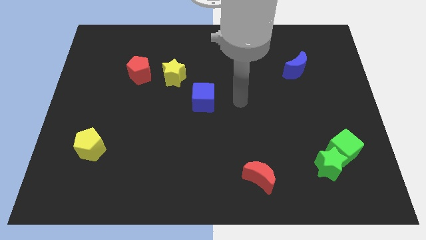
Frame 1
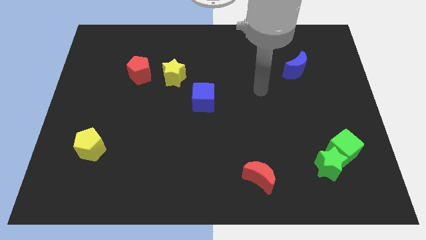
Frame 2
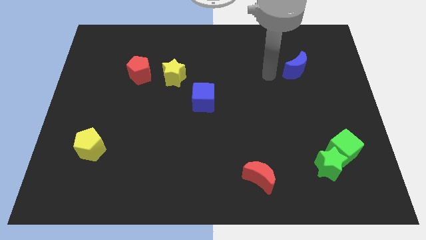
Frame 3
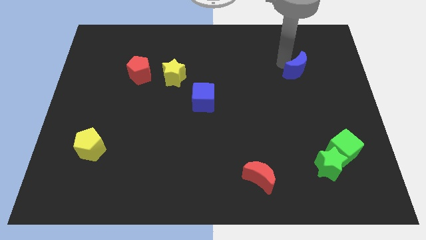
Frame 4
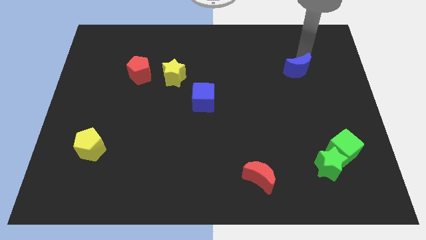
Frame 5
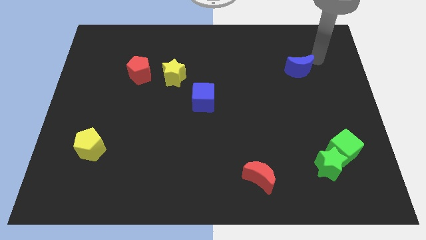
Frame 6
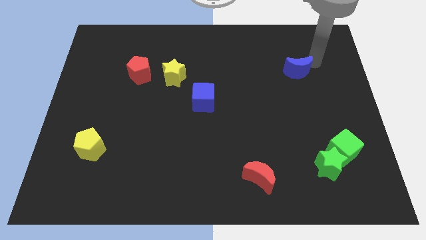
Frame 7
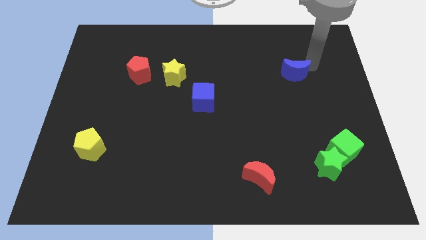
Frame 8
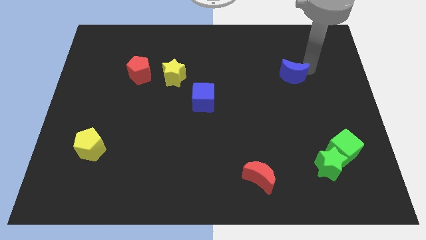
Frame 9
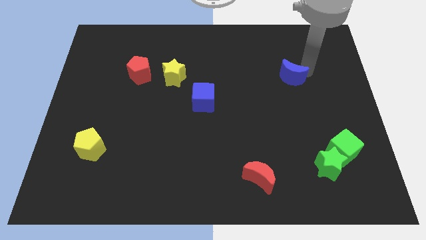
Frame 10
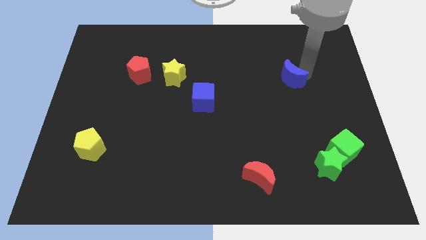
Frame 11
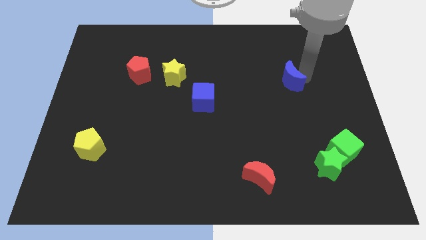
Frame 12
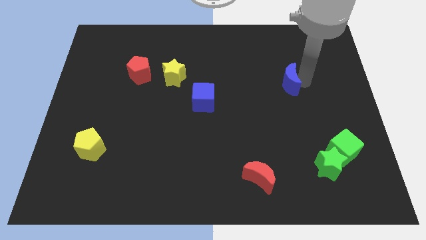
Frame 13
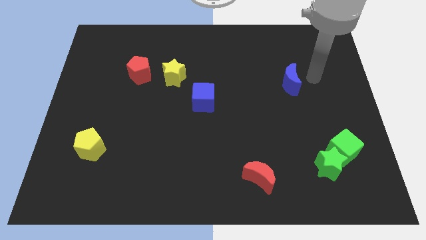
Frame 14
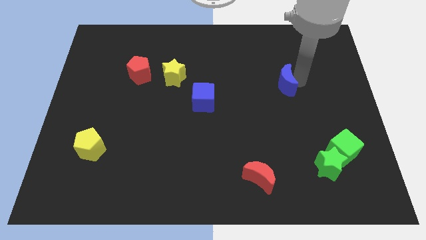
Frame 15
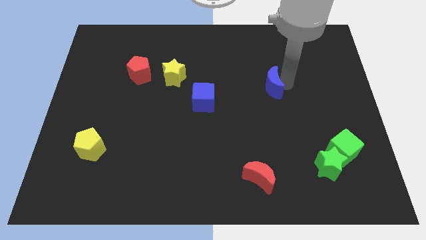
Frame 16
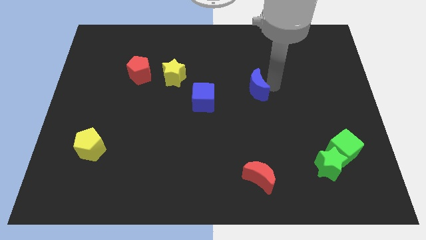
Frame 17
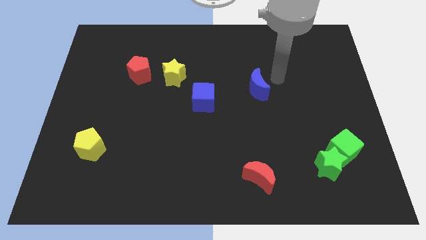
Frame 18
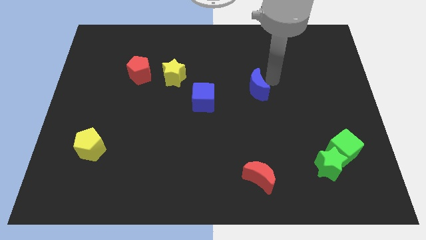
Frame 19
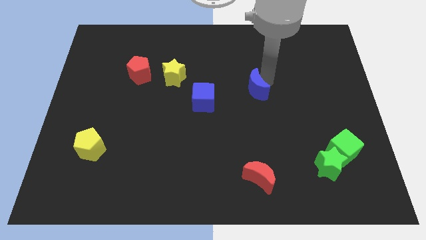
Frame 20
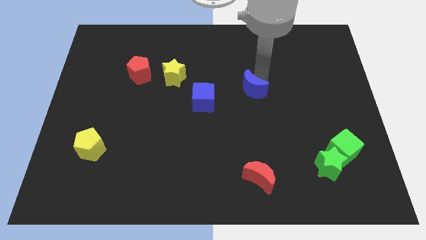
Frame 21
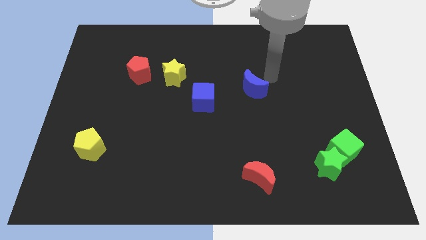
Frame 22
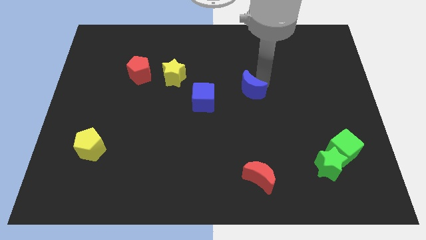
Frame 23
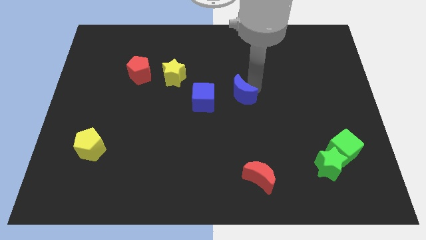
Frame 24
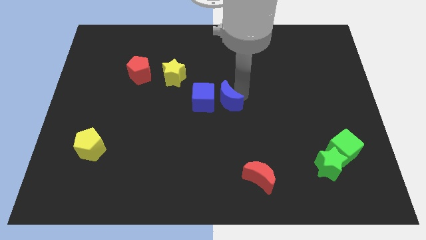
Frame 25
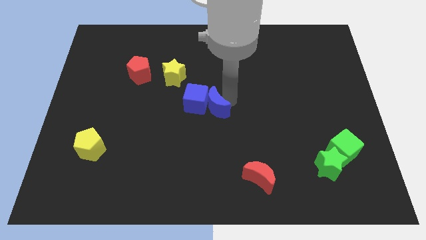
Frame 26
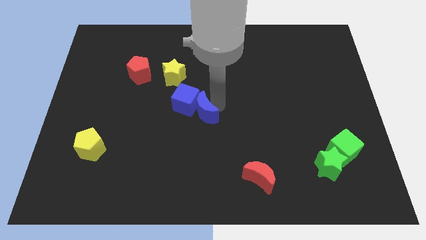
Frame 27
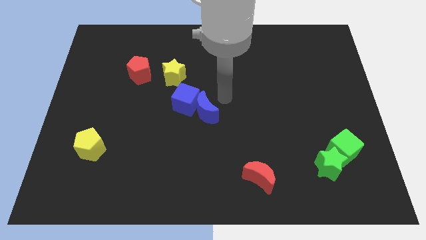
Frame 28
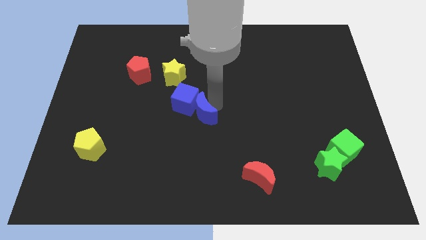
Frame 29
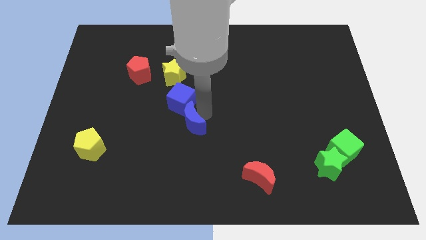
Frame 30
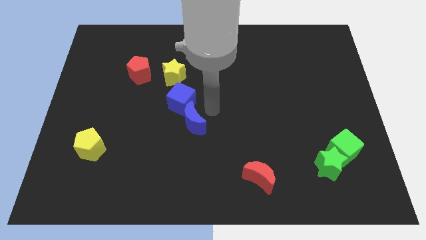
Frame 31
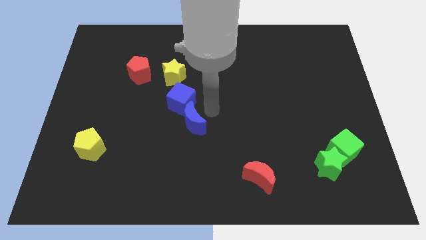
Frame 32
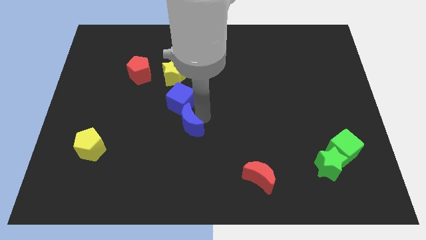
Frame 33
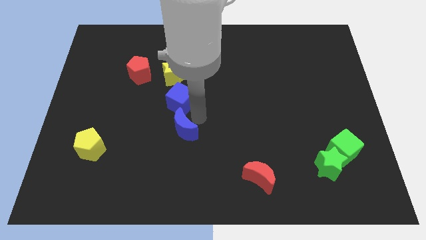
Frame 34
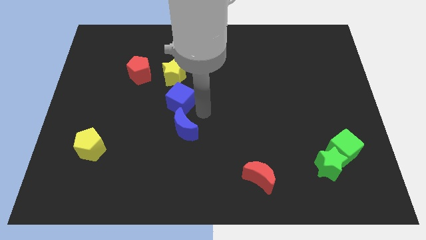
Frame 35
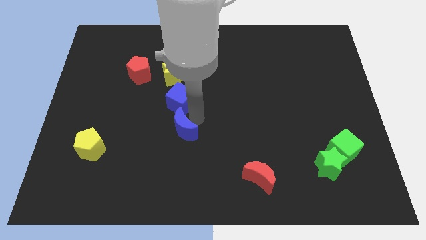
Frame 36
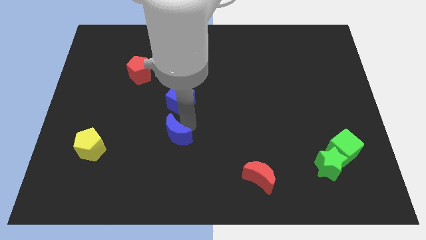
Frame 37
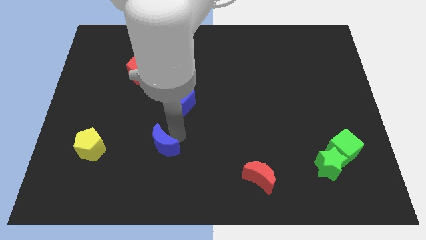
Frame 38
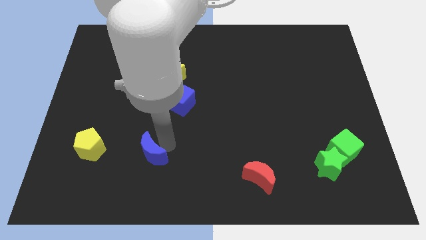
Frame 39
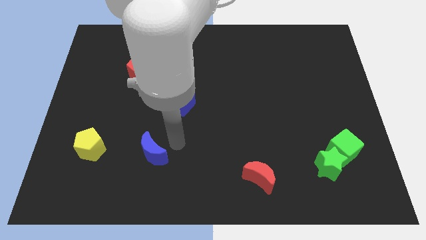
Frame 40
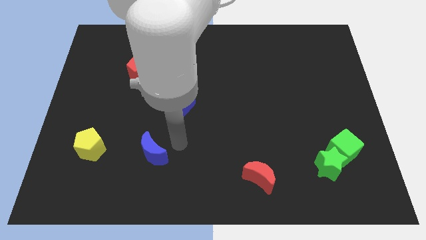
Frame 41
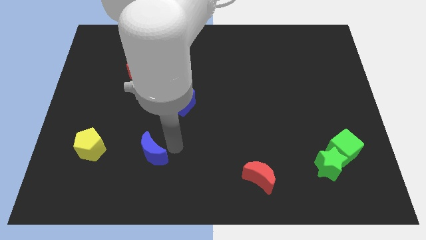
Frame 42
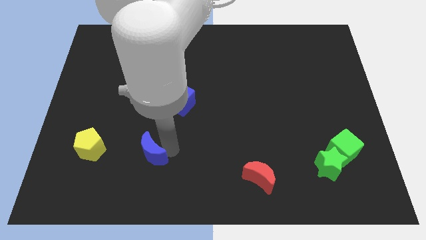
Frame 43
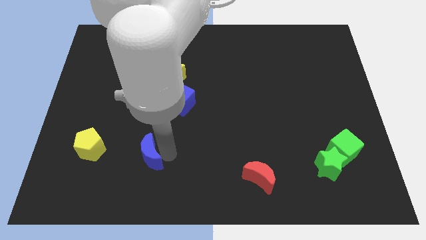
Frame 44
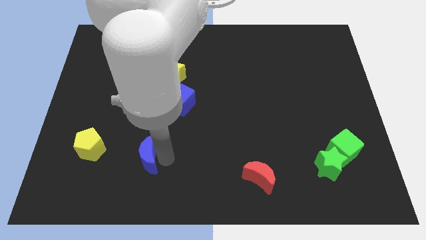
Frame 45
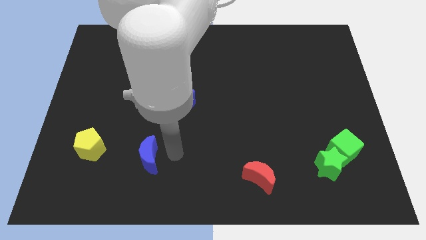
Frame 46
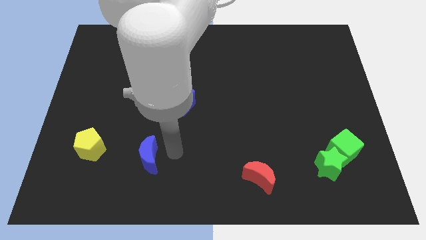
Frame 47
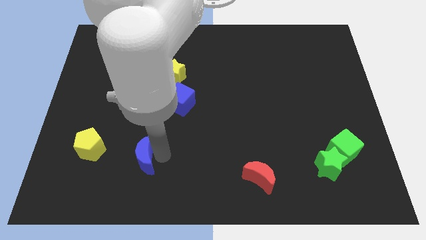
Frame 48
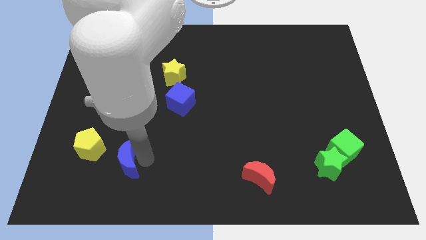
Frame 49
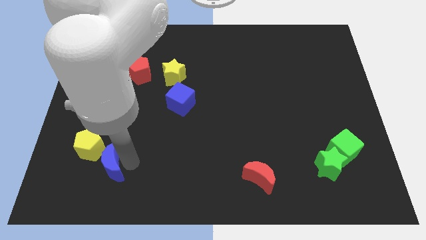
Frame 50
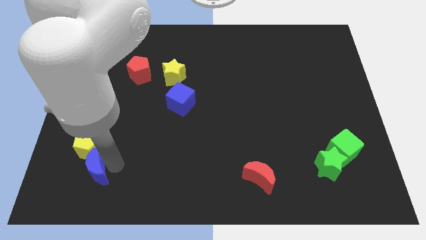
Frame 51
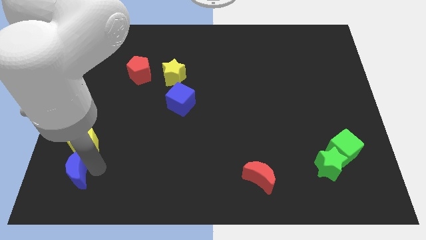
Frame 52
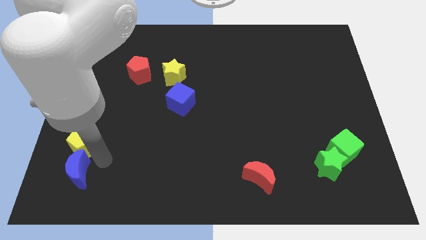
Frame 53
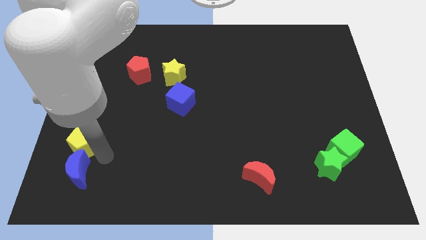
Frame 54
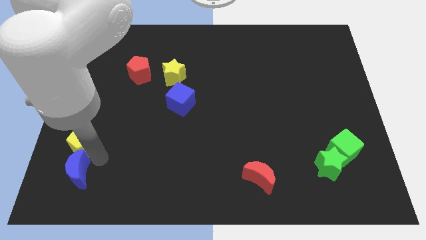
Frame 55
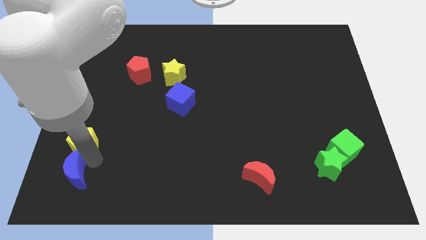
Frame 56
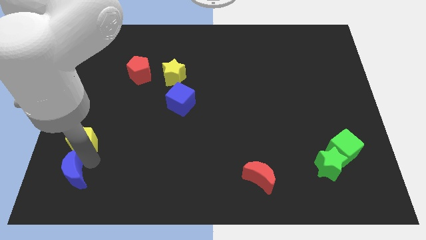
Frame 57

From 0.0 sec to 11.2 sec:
put the blue moon to the bottom left

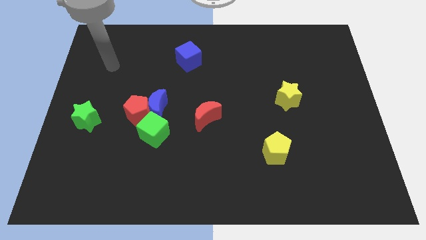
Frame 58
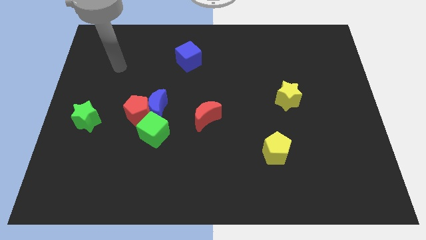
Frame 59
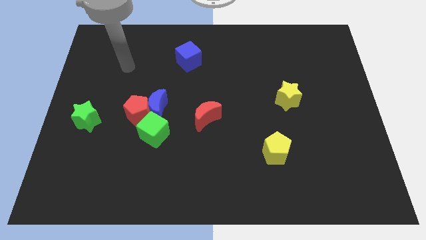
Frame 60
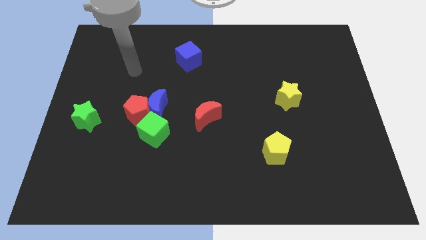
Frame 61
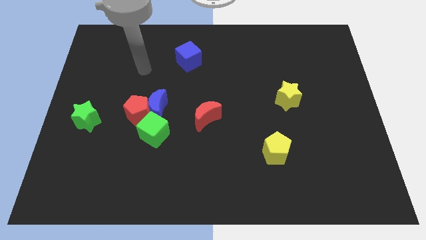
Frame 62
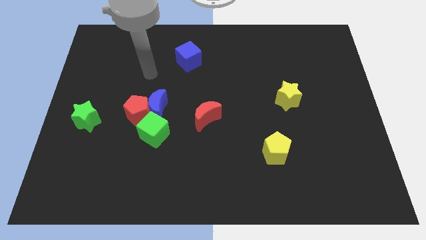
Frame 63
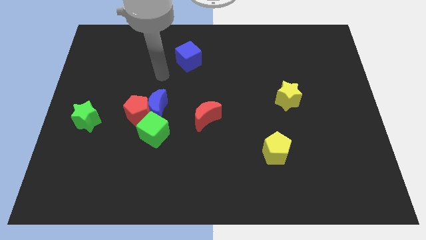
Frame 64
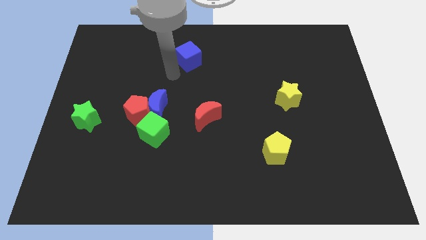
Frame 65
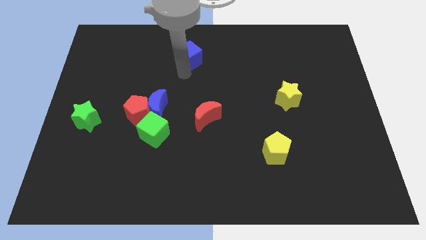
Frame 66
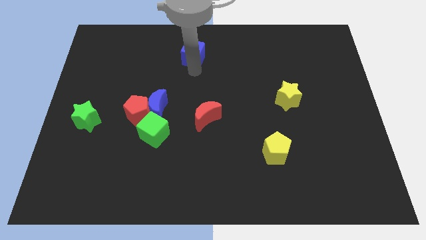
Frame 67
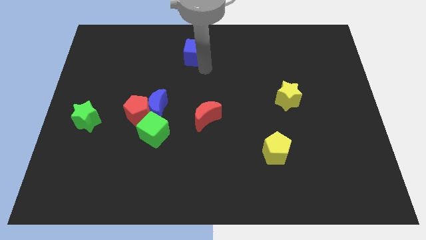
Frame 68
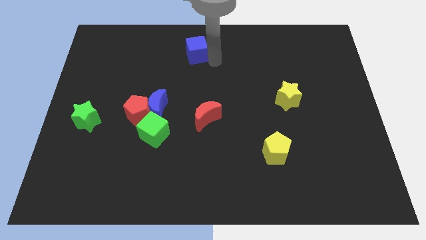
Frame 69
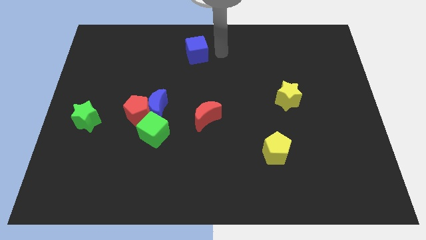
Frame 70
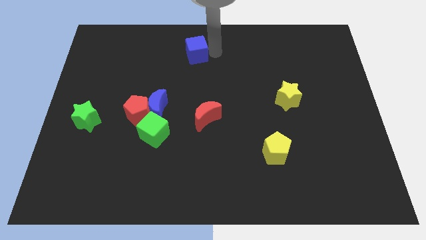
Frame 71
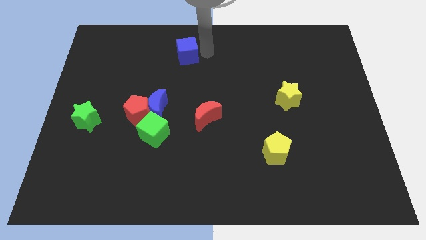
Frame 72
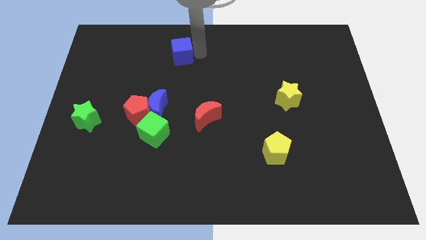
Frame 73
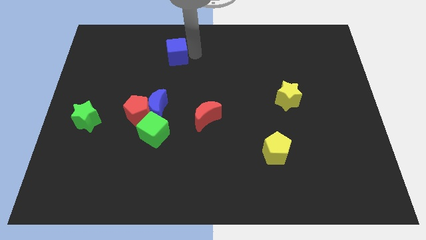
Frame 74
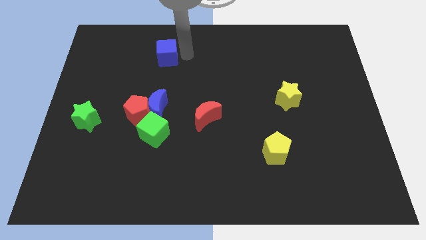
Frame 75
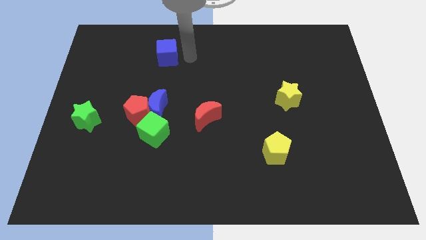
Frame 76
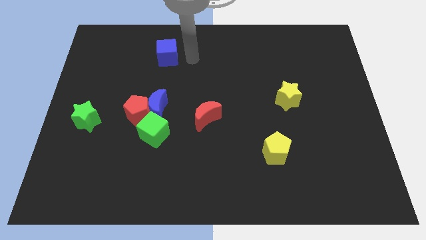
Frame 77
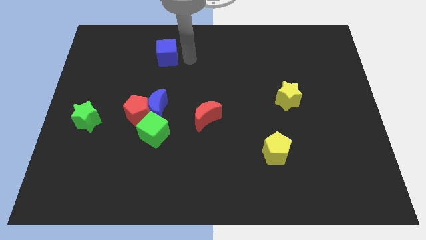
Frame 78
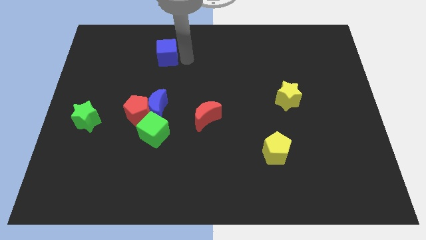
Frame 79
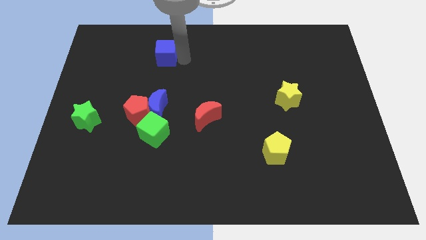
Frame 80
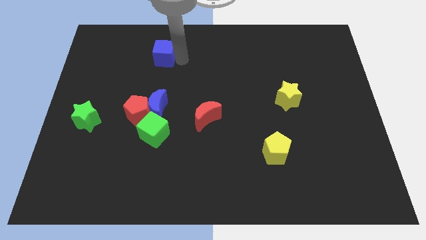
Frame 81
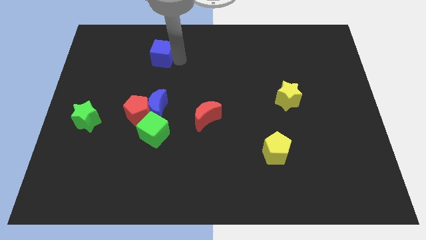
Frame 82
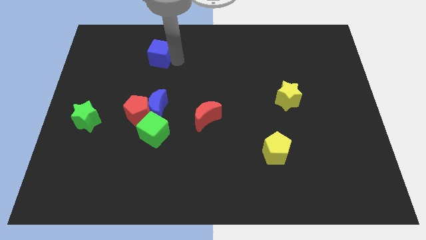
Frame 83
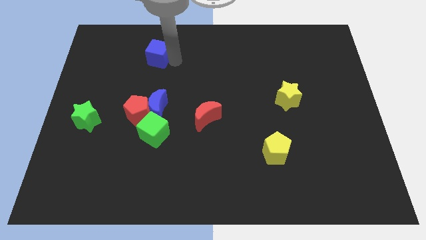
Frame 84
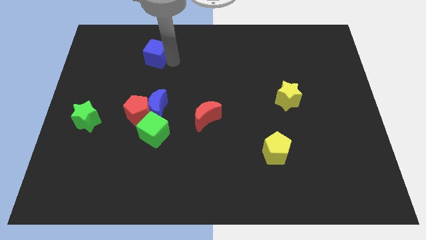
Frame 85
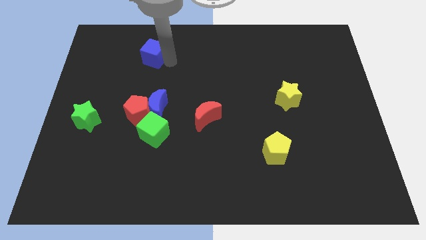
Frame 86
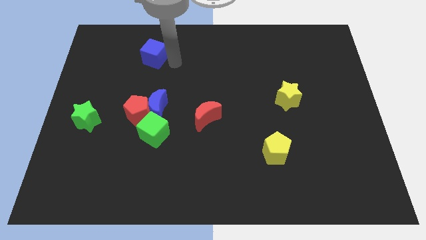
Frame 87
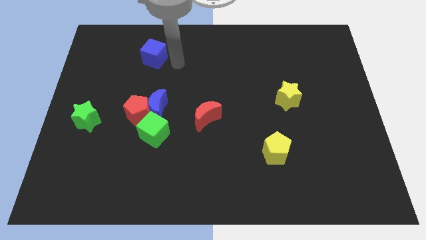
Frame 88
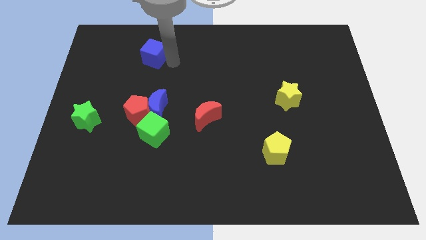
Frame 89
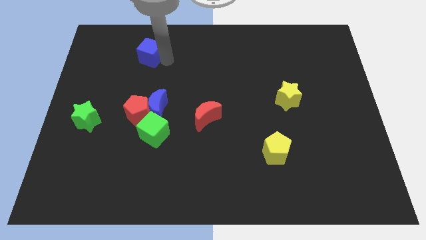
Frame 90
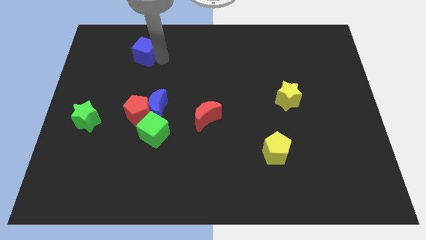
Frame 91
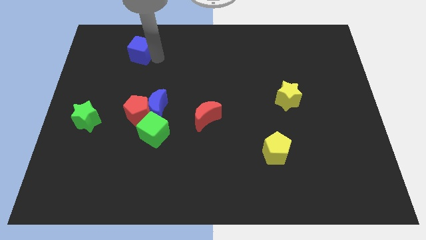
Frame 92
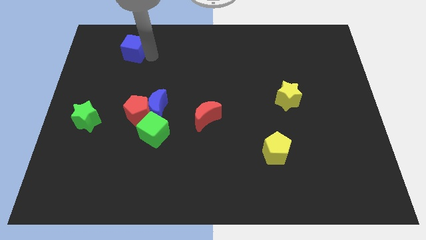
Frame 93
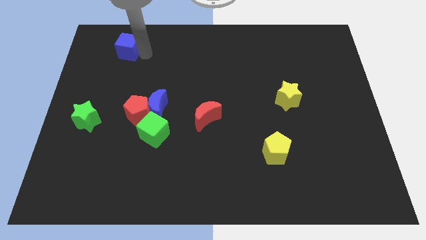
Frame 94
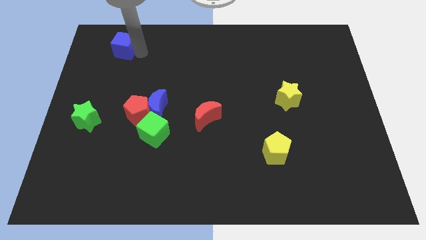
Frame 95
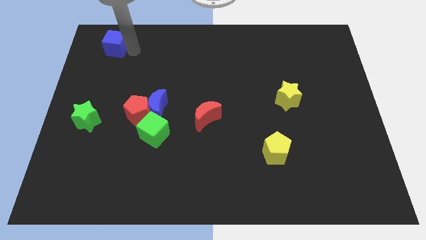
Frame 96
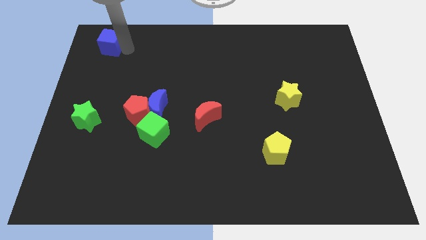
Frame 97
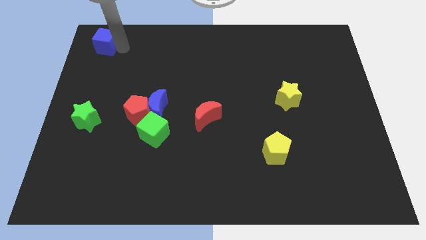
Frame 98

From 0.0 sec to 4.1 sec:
put the blue cube to the top left of the board
